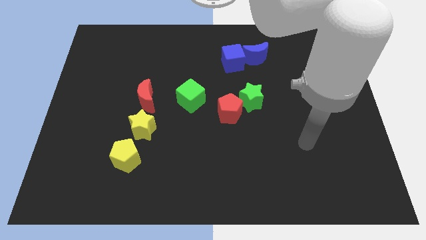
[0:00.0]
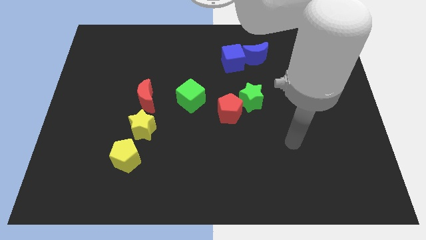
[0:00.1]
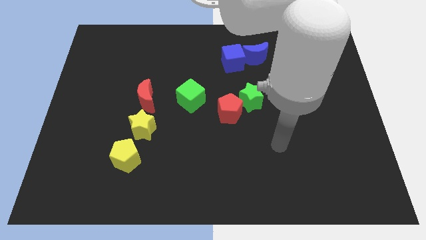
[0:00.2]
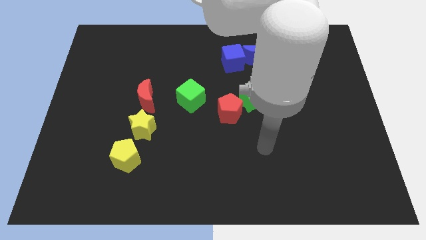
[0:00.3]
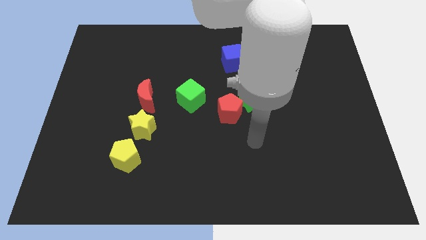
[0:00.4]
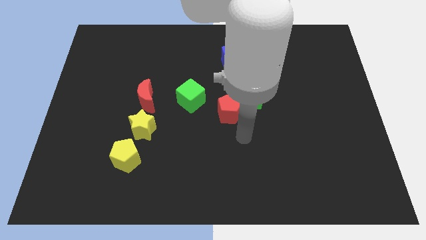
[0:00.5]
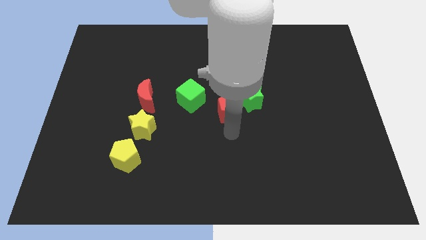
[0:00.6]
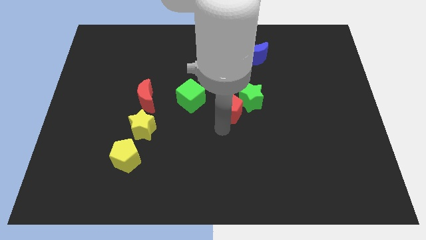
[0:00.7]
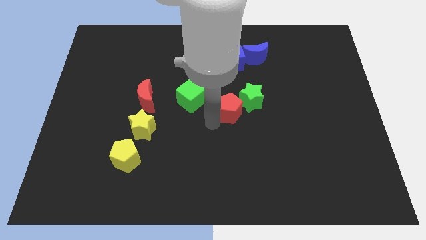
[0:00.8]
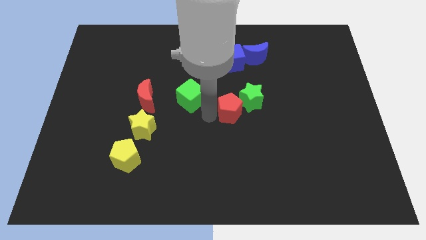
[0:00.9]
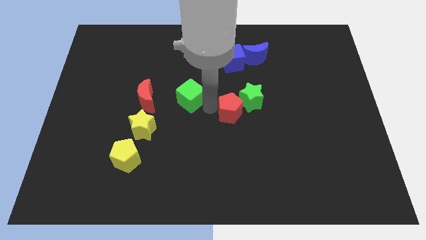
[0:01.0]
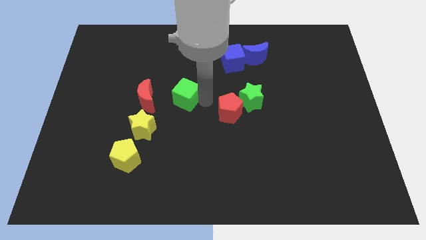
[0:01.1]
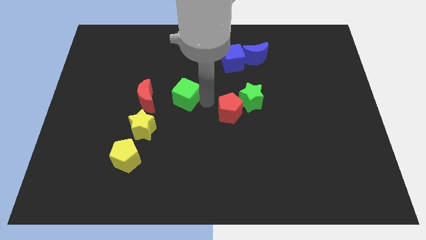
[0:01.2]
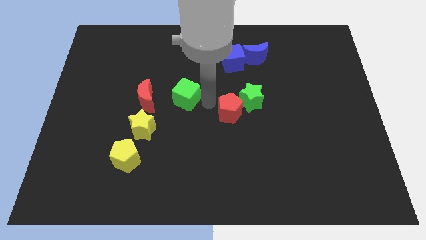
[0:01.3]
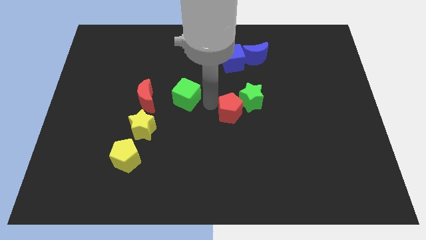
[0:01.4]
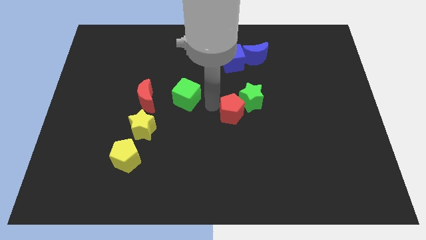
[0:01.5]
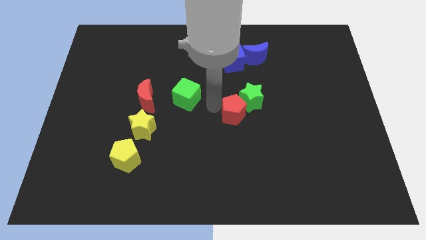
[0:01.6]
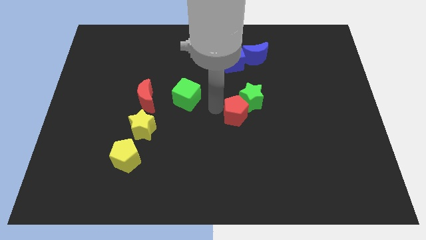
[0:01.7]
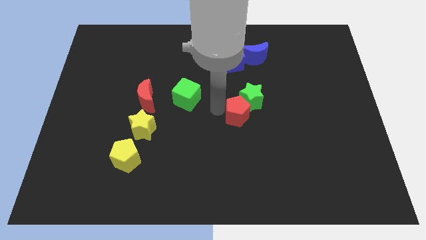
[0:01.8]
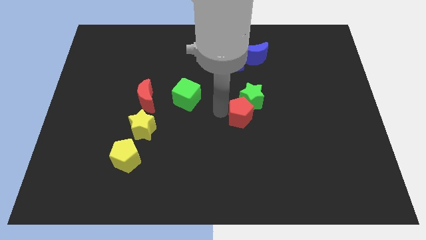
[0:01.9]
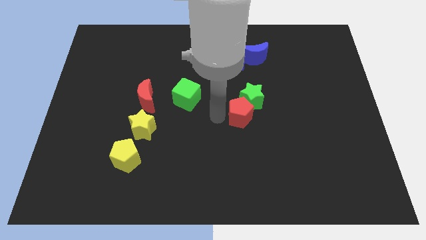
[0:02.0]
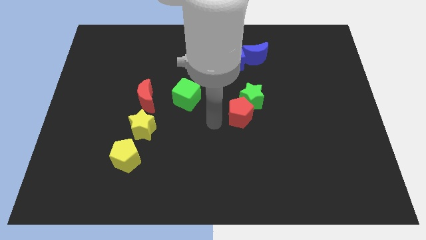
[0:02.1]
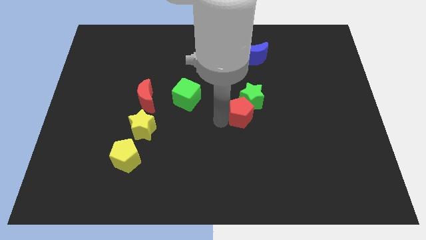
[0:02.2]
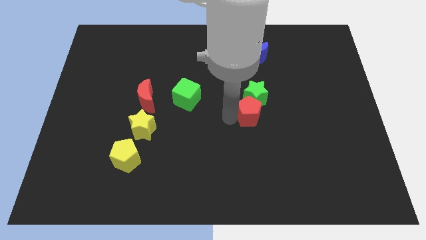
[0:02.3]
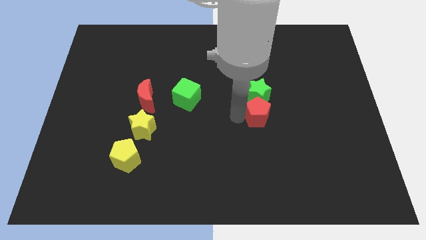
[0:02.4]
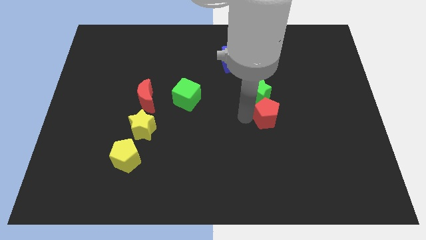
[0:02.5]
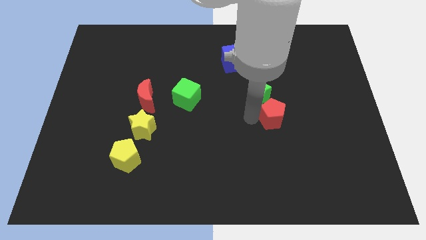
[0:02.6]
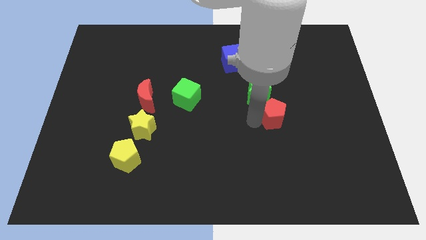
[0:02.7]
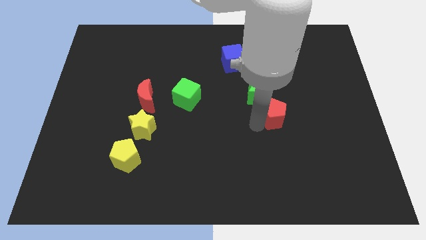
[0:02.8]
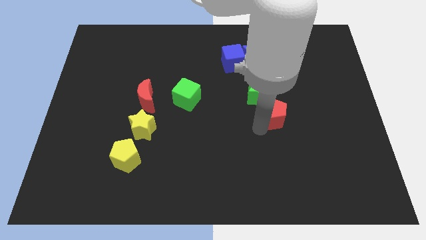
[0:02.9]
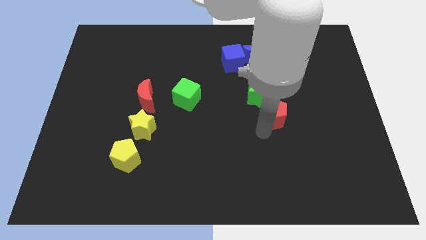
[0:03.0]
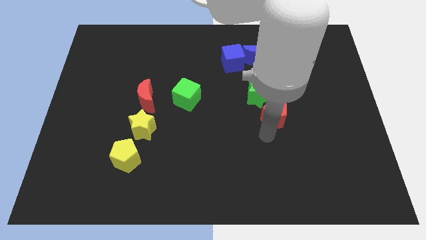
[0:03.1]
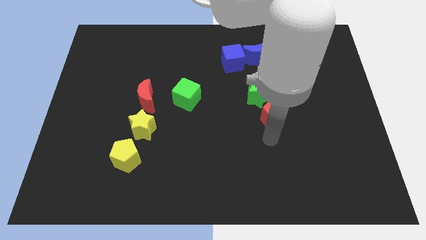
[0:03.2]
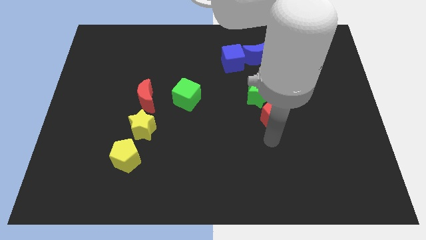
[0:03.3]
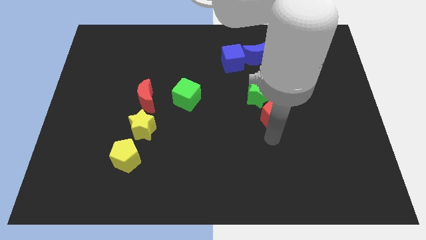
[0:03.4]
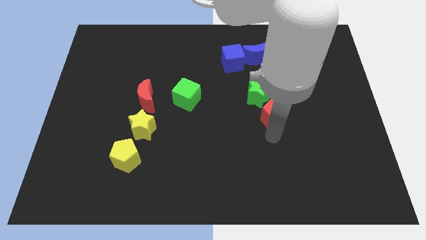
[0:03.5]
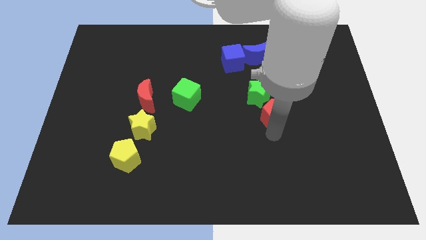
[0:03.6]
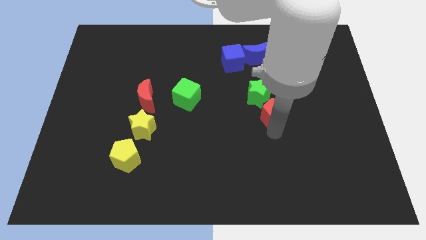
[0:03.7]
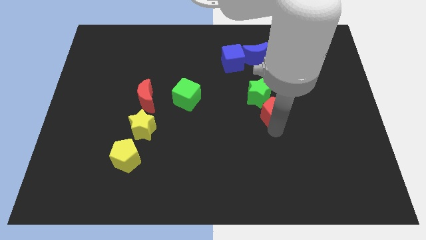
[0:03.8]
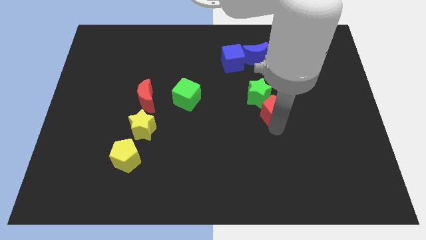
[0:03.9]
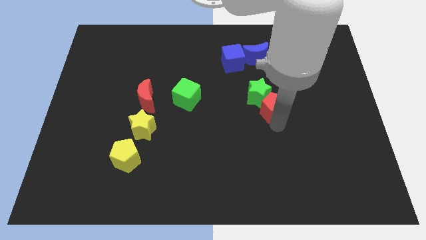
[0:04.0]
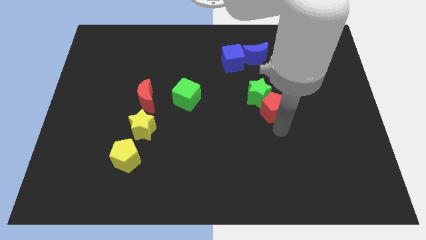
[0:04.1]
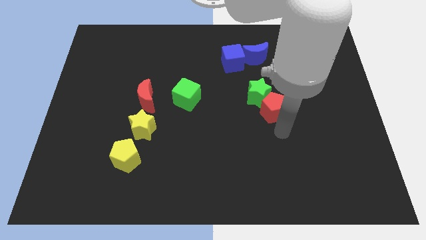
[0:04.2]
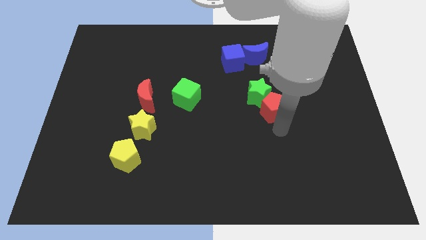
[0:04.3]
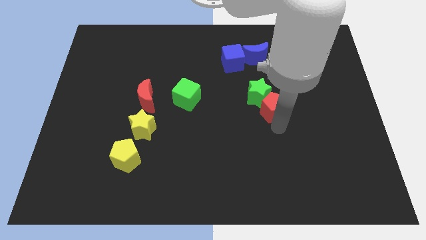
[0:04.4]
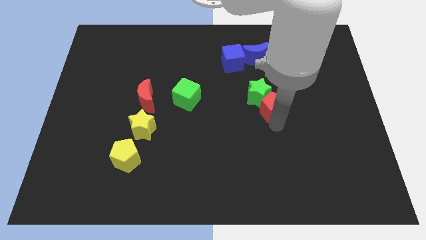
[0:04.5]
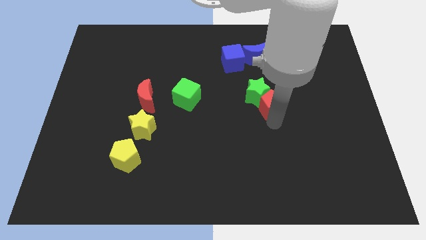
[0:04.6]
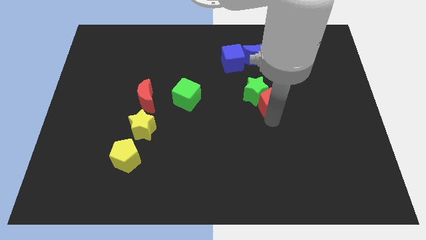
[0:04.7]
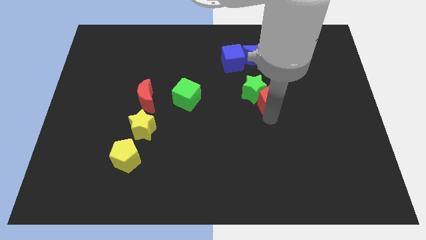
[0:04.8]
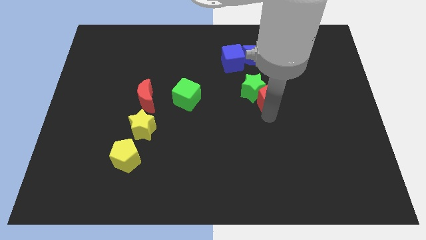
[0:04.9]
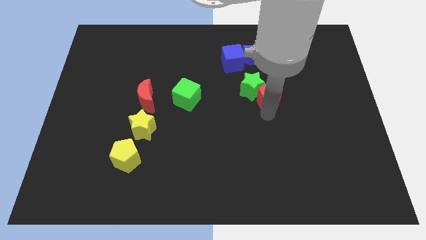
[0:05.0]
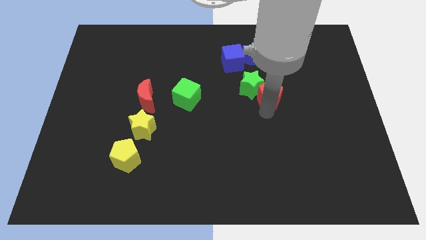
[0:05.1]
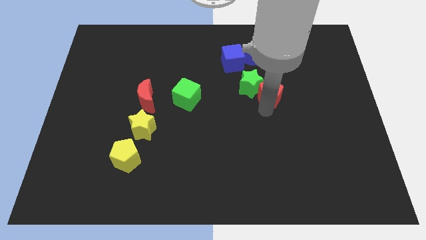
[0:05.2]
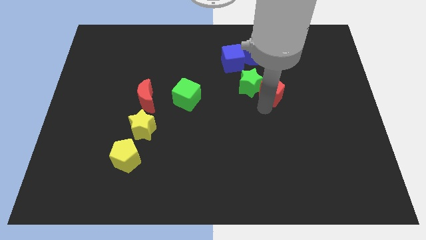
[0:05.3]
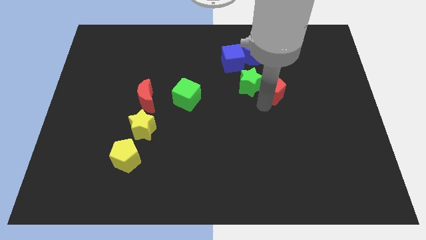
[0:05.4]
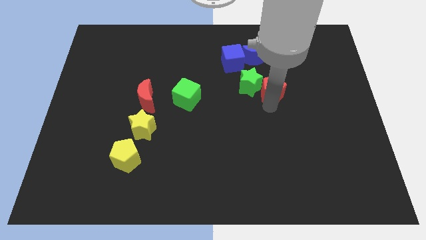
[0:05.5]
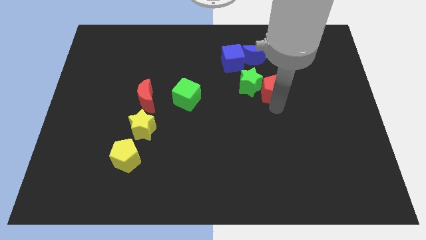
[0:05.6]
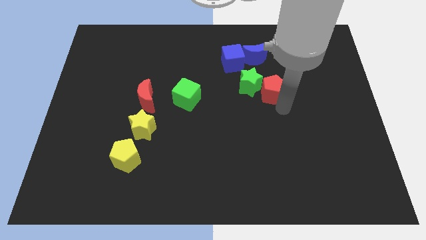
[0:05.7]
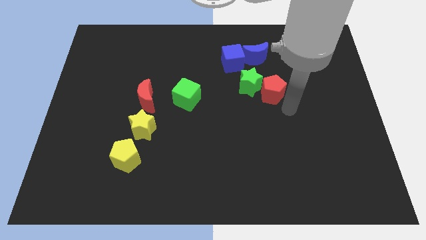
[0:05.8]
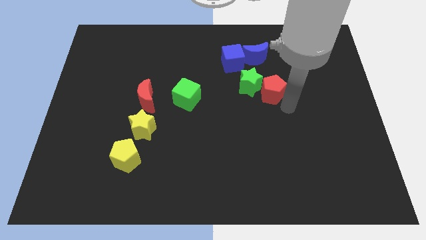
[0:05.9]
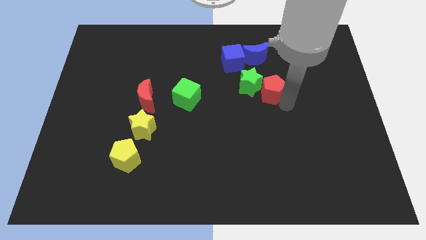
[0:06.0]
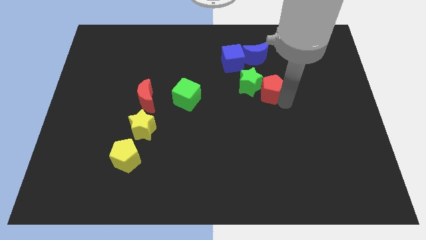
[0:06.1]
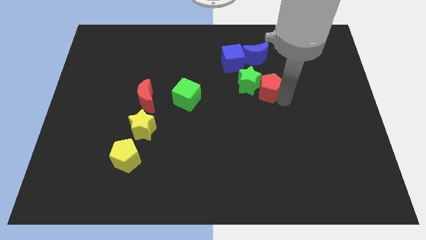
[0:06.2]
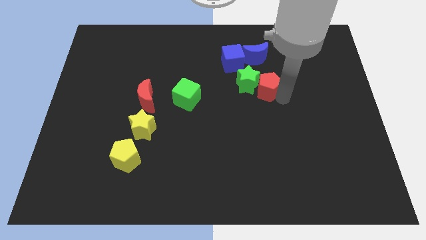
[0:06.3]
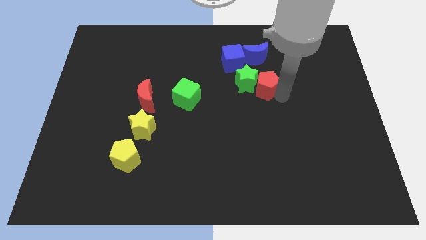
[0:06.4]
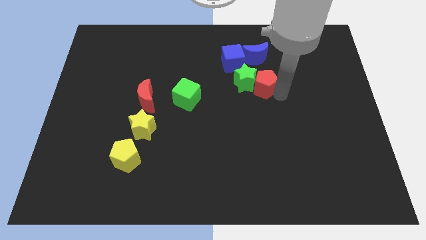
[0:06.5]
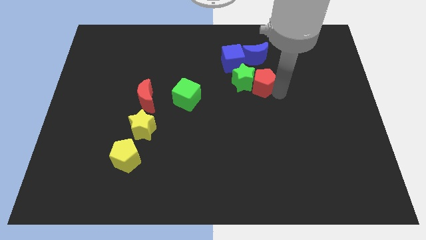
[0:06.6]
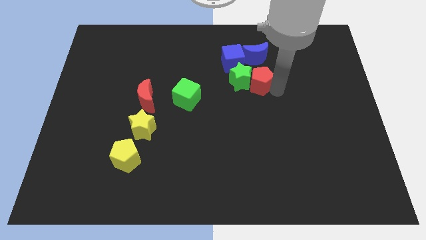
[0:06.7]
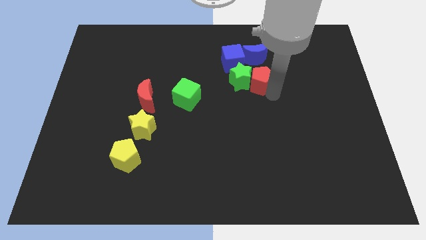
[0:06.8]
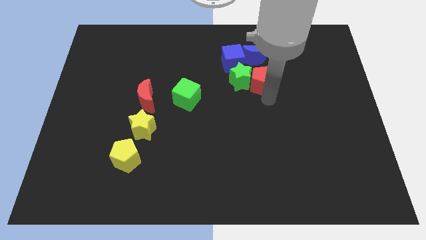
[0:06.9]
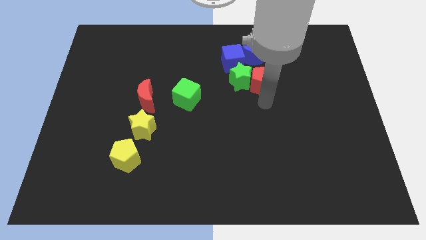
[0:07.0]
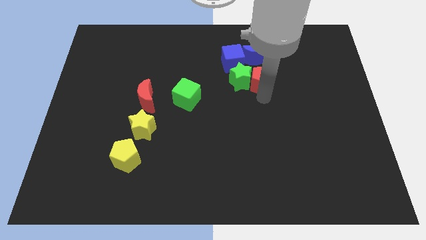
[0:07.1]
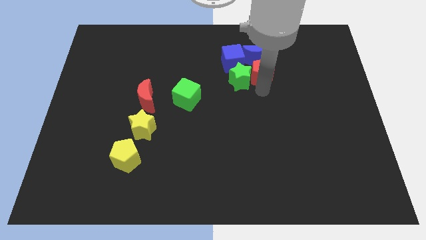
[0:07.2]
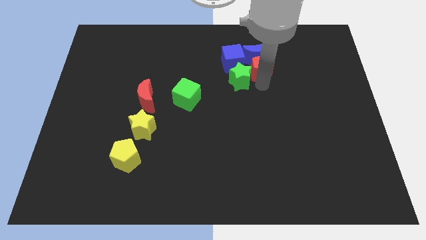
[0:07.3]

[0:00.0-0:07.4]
push the red pentagon close to the blue moon
